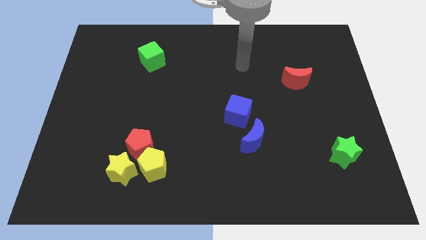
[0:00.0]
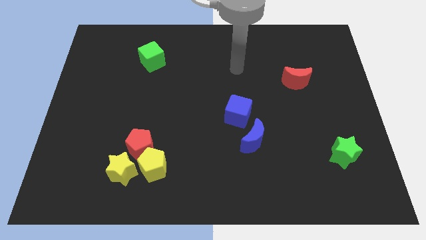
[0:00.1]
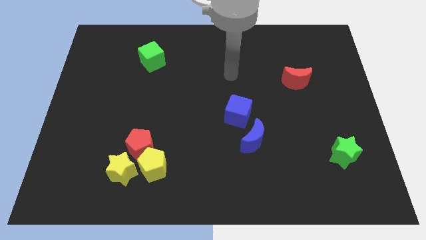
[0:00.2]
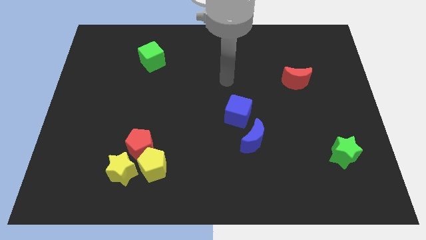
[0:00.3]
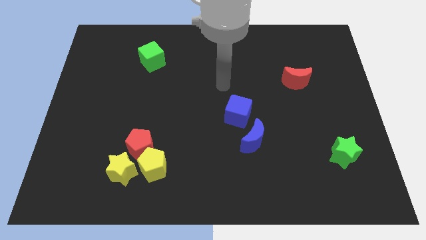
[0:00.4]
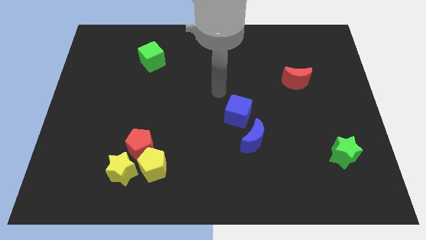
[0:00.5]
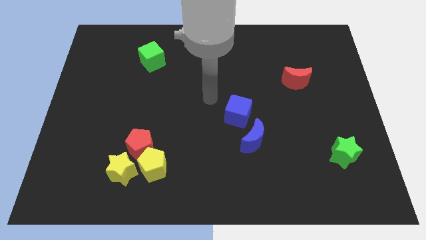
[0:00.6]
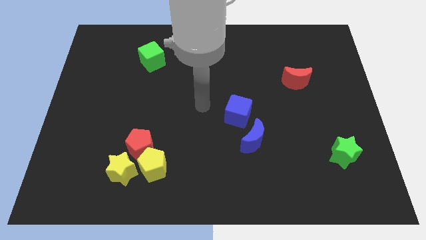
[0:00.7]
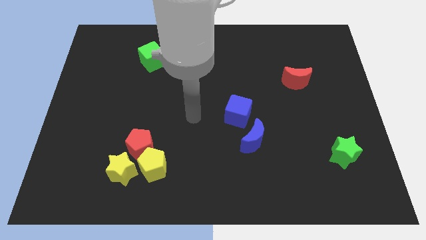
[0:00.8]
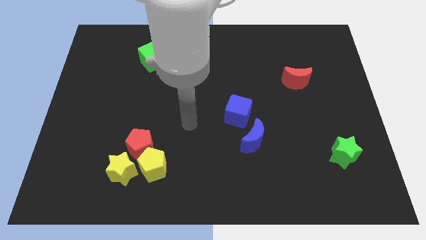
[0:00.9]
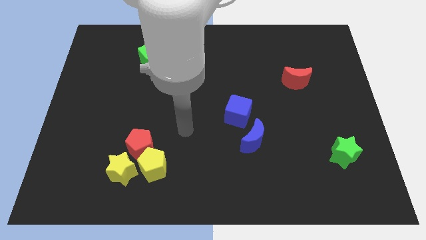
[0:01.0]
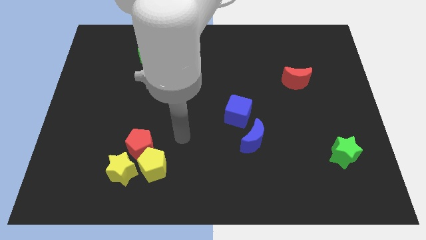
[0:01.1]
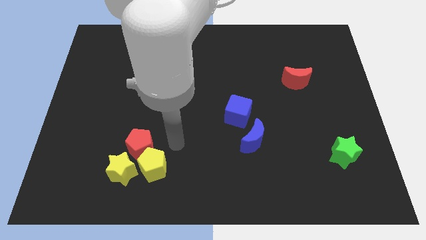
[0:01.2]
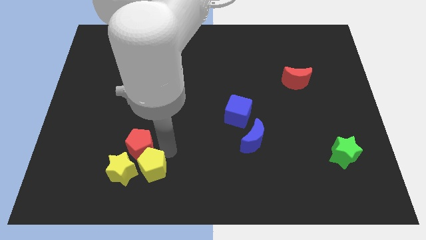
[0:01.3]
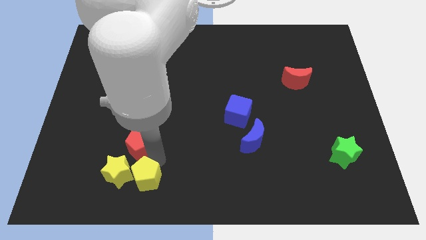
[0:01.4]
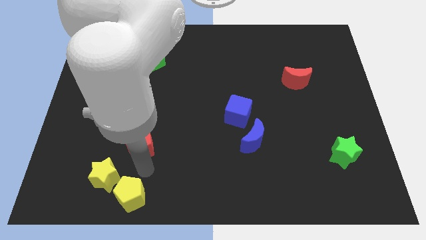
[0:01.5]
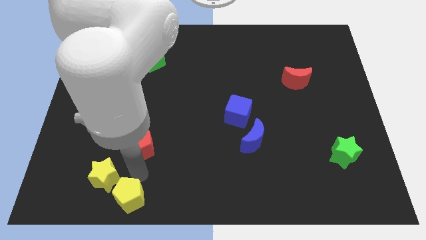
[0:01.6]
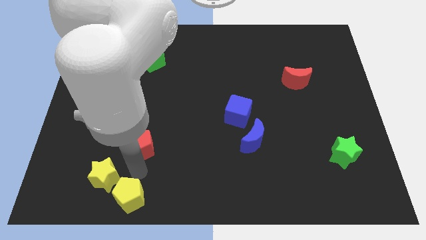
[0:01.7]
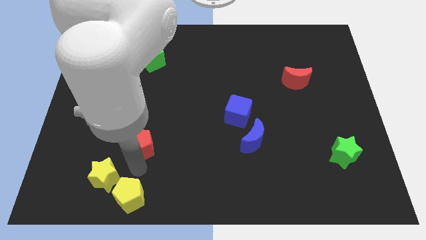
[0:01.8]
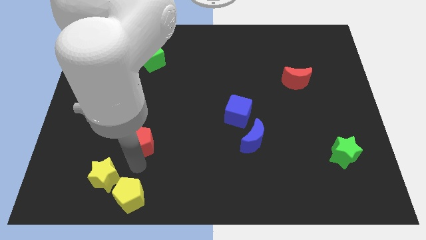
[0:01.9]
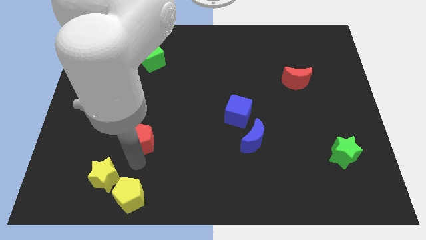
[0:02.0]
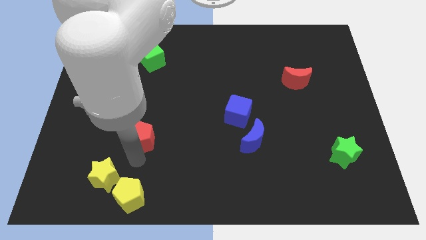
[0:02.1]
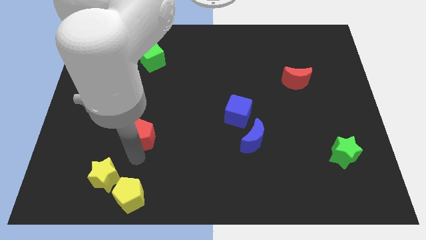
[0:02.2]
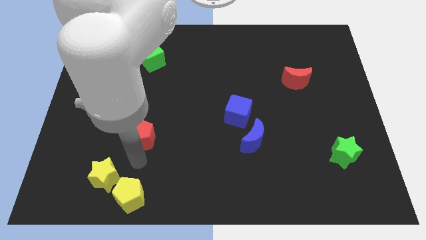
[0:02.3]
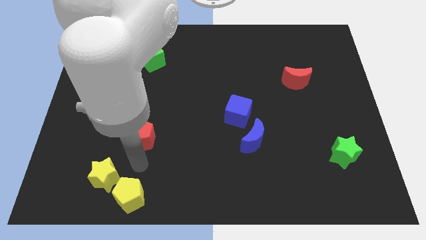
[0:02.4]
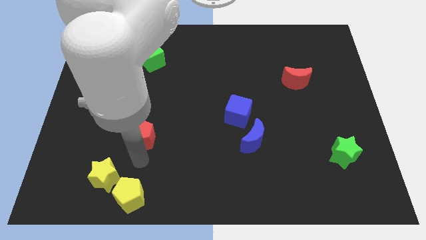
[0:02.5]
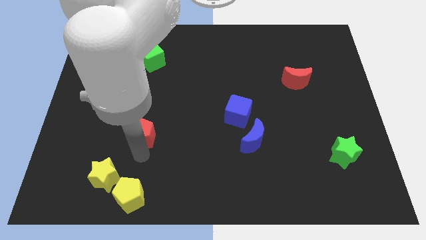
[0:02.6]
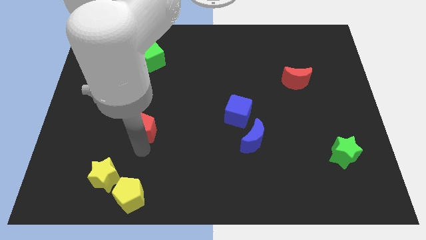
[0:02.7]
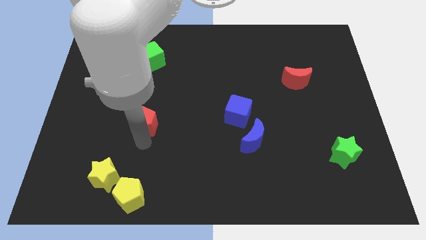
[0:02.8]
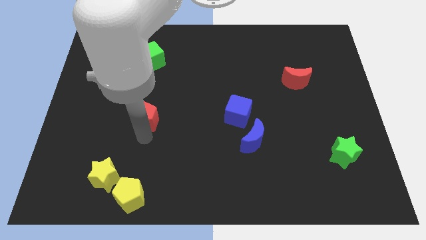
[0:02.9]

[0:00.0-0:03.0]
slightly move the red pentagon upwards

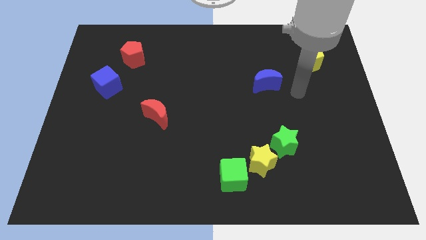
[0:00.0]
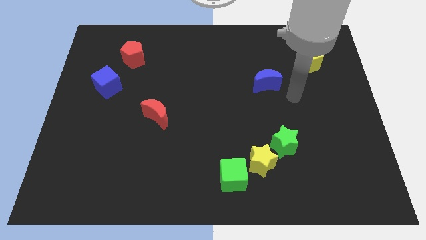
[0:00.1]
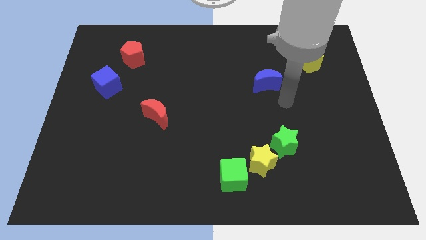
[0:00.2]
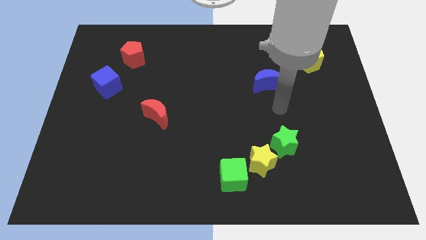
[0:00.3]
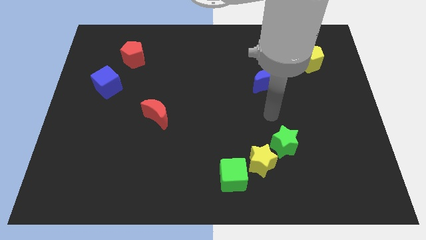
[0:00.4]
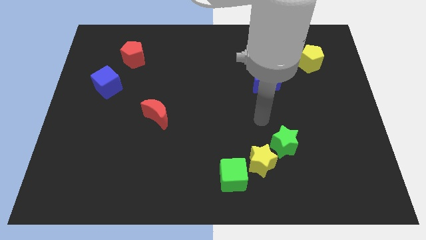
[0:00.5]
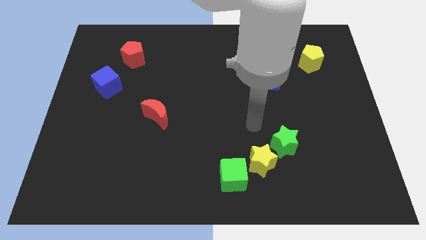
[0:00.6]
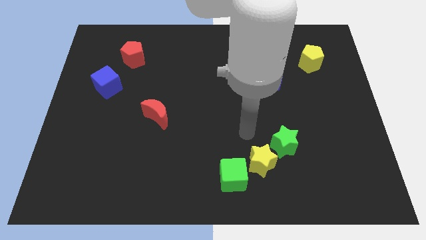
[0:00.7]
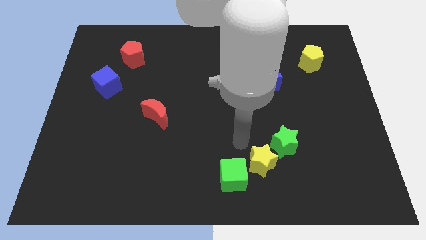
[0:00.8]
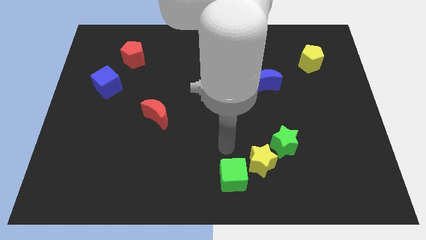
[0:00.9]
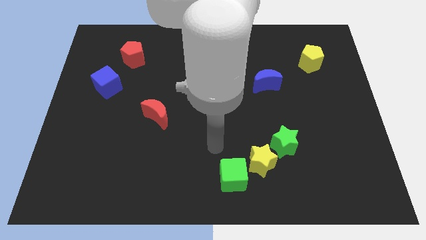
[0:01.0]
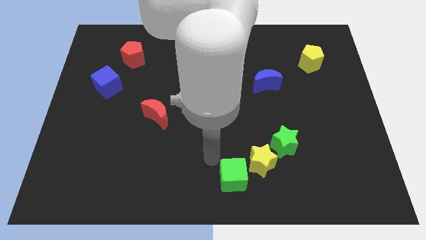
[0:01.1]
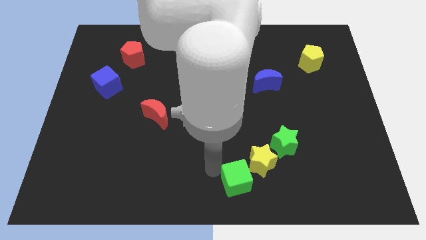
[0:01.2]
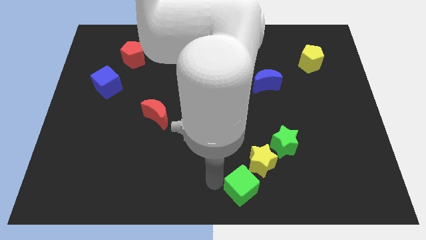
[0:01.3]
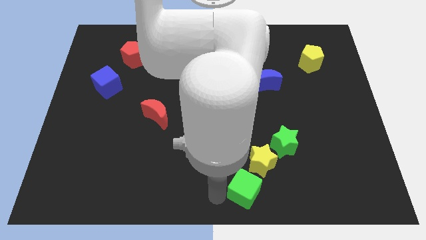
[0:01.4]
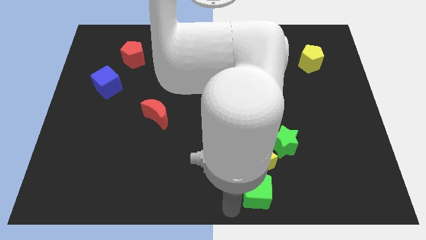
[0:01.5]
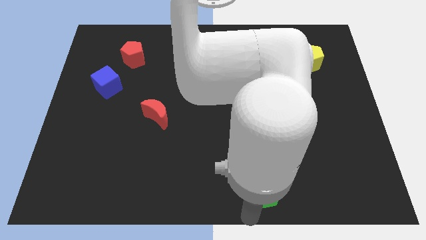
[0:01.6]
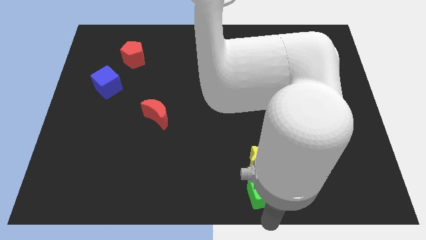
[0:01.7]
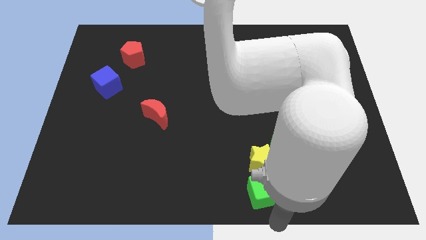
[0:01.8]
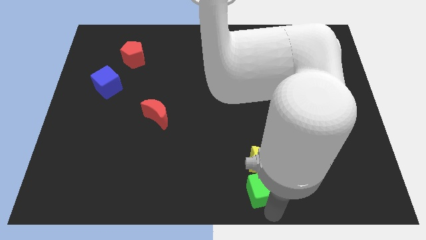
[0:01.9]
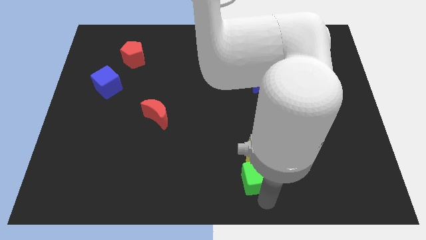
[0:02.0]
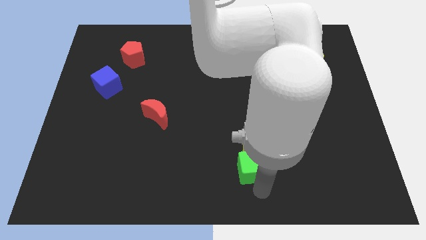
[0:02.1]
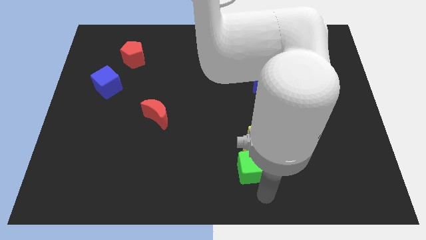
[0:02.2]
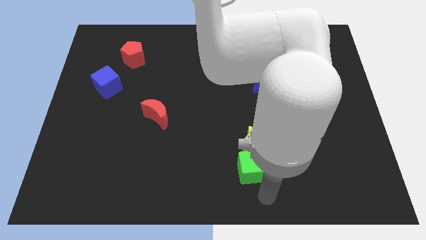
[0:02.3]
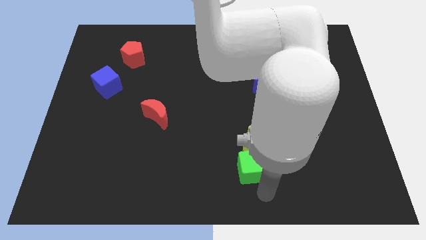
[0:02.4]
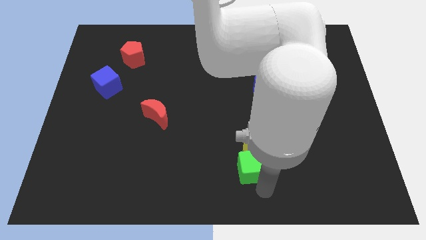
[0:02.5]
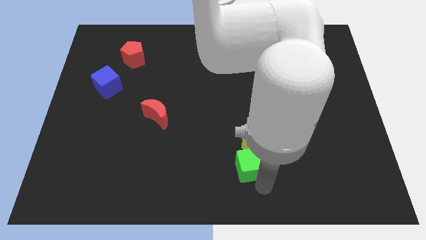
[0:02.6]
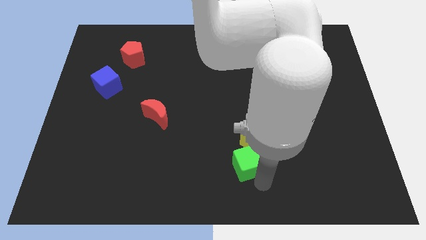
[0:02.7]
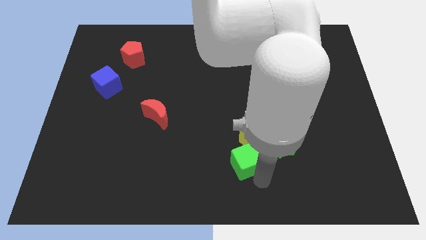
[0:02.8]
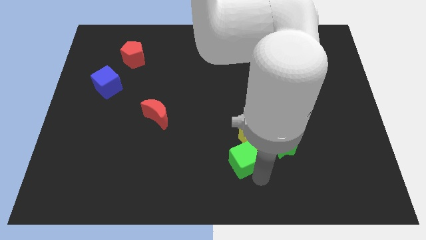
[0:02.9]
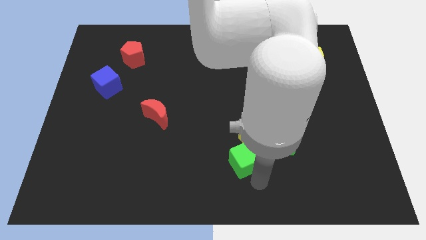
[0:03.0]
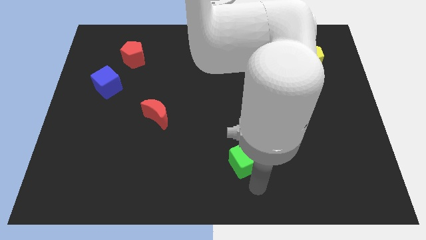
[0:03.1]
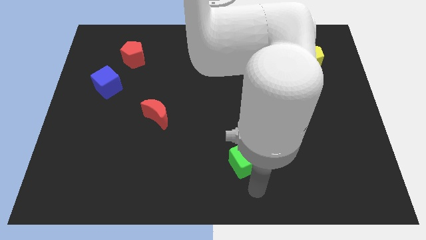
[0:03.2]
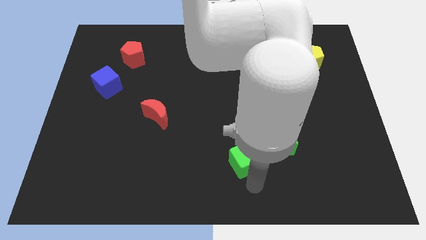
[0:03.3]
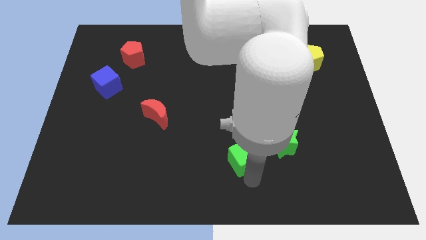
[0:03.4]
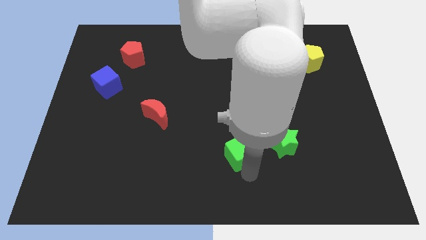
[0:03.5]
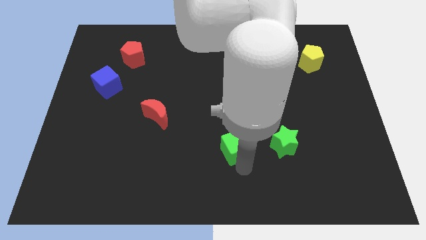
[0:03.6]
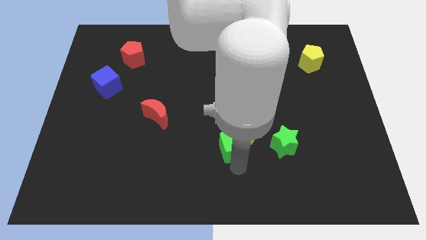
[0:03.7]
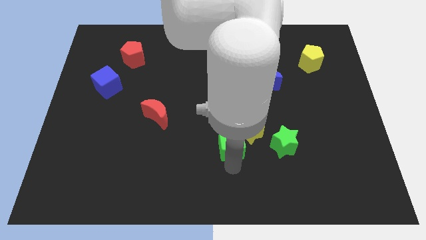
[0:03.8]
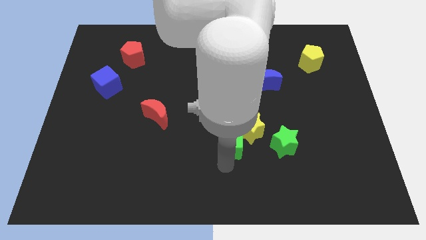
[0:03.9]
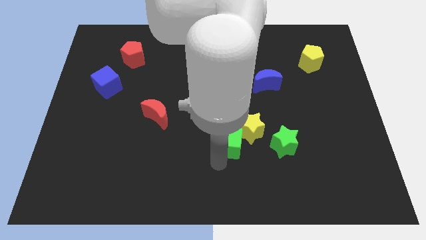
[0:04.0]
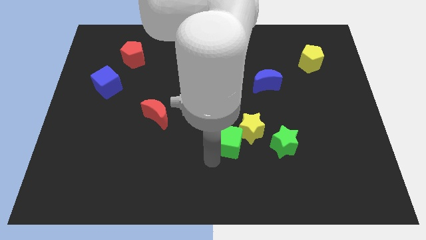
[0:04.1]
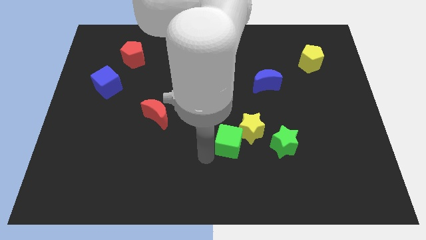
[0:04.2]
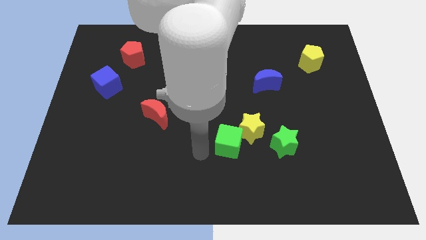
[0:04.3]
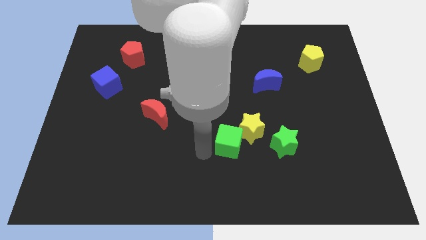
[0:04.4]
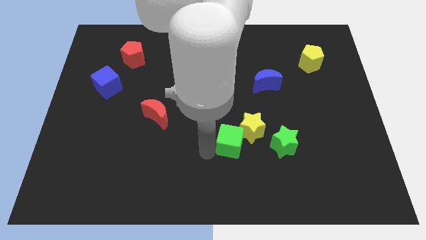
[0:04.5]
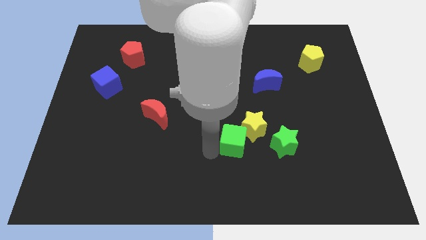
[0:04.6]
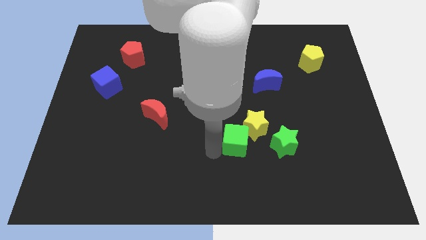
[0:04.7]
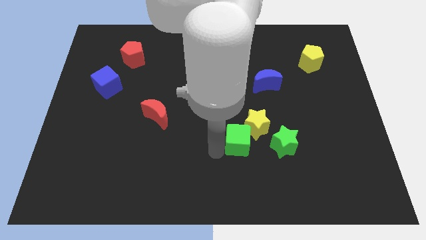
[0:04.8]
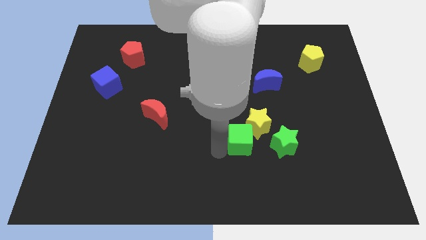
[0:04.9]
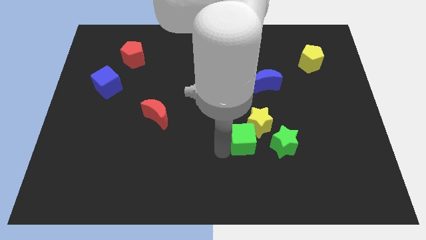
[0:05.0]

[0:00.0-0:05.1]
move the green cube a little bit diagonally up and right
